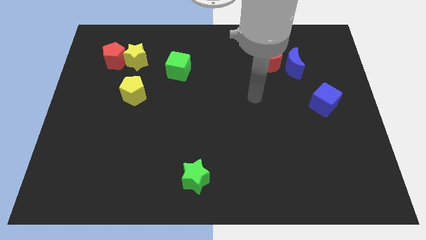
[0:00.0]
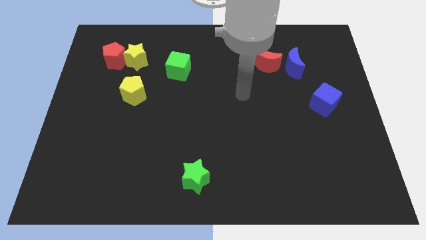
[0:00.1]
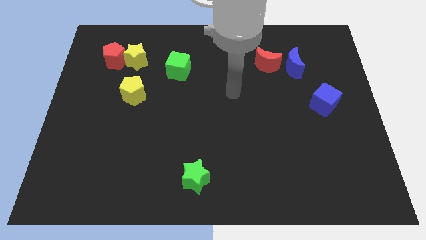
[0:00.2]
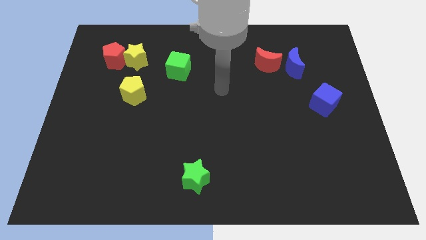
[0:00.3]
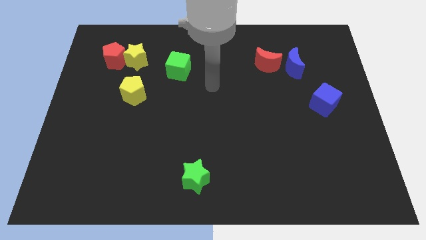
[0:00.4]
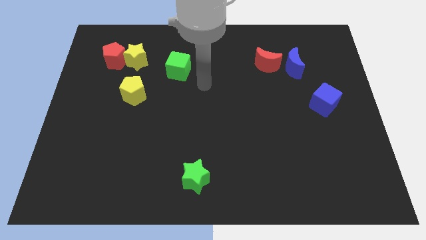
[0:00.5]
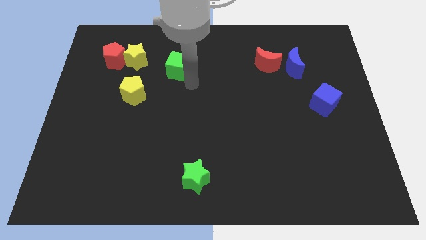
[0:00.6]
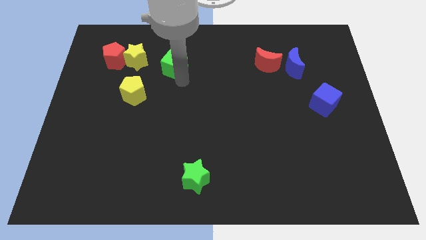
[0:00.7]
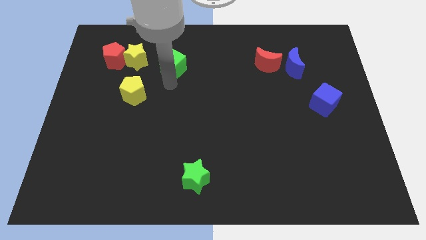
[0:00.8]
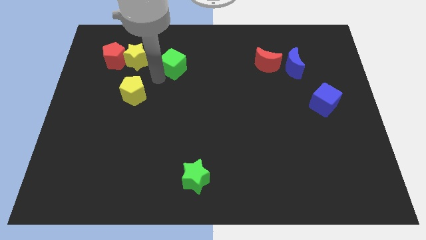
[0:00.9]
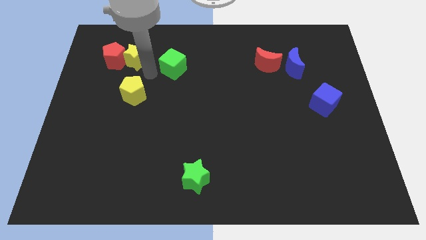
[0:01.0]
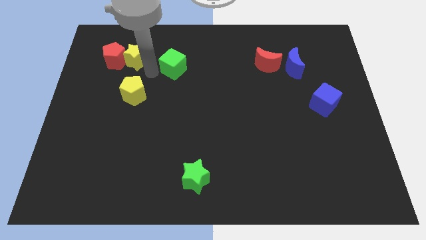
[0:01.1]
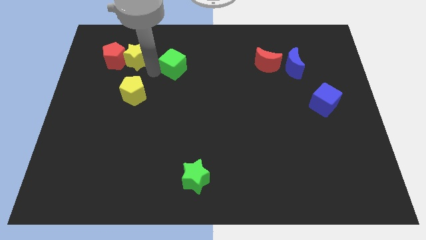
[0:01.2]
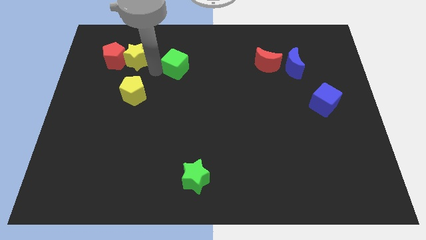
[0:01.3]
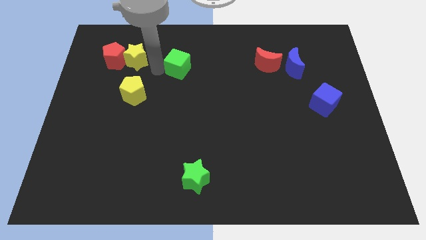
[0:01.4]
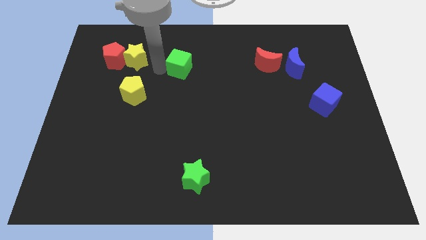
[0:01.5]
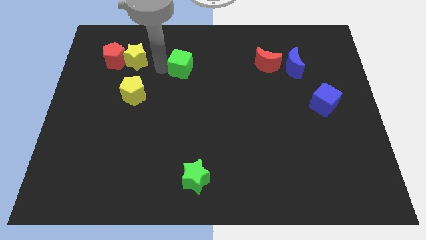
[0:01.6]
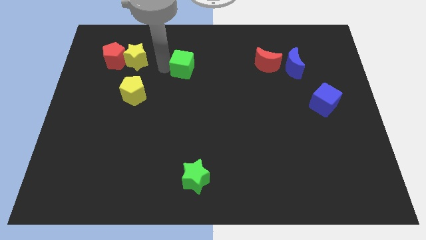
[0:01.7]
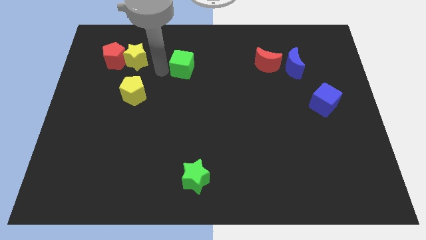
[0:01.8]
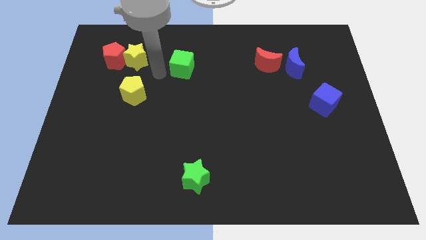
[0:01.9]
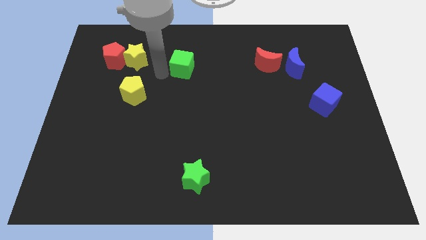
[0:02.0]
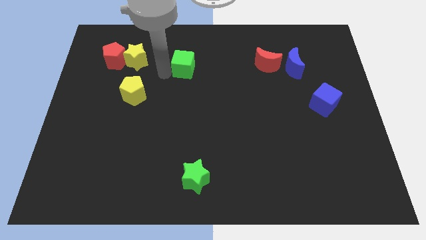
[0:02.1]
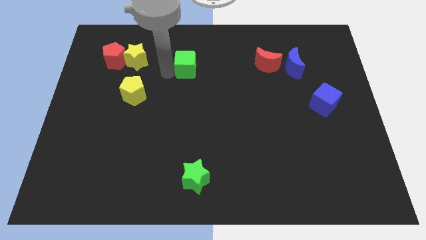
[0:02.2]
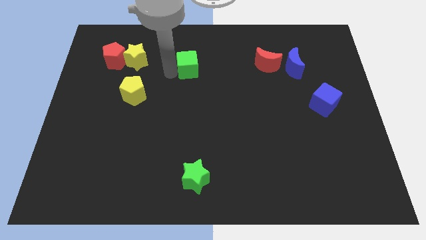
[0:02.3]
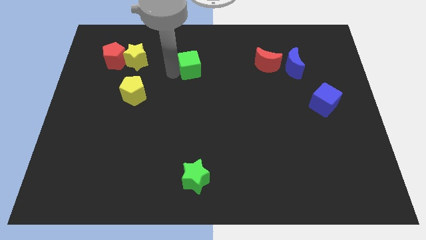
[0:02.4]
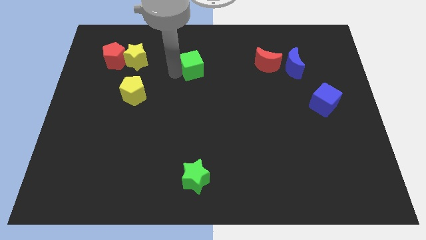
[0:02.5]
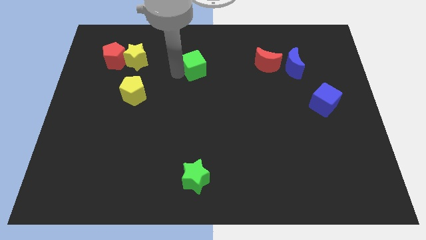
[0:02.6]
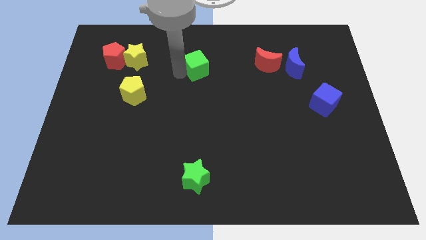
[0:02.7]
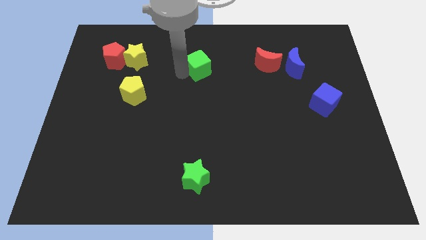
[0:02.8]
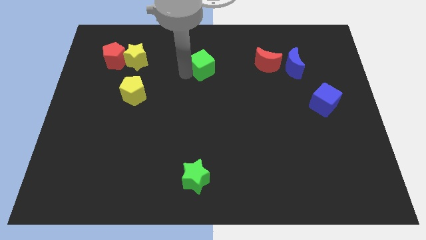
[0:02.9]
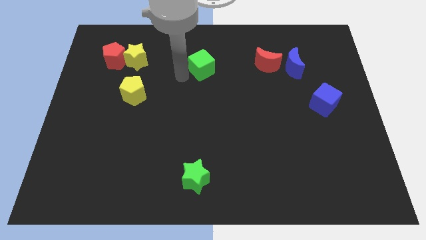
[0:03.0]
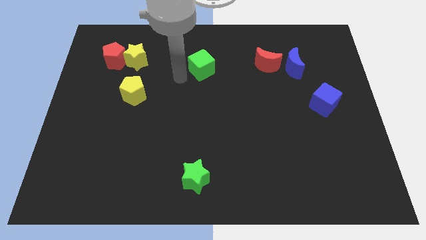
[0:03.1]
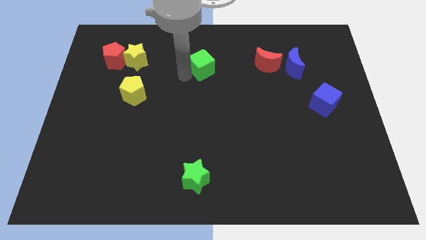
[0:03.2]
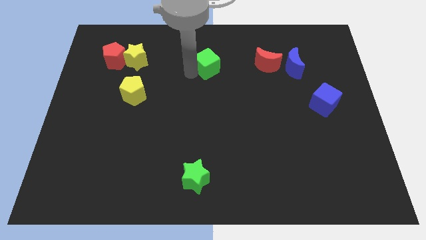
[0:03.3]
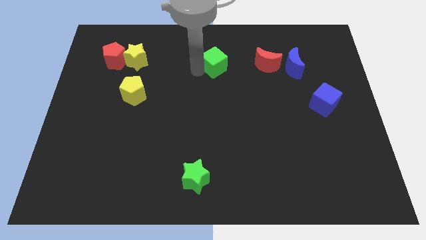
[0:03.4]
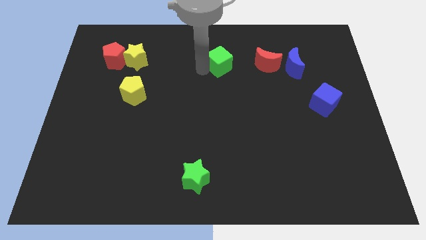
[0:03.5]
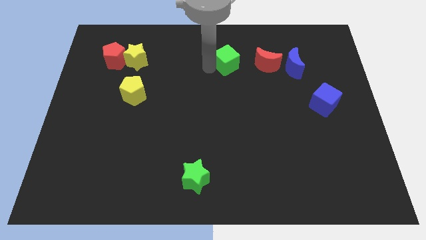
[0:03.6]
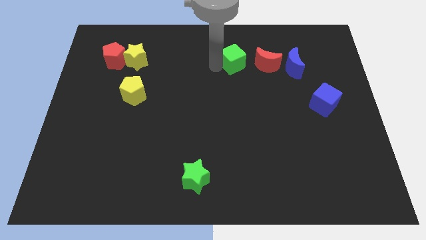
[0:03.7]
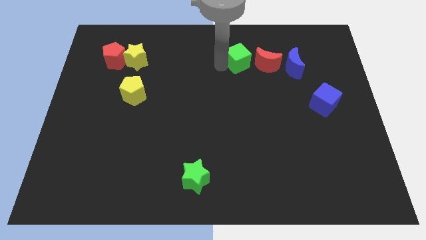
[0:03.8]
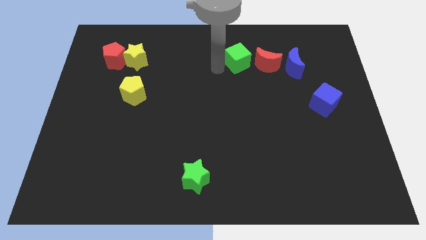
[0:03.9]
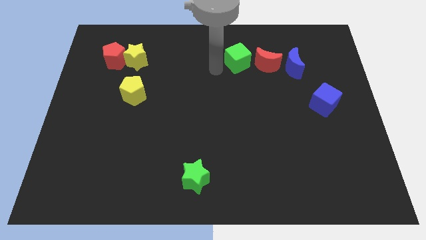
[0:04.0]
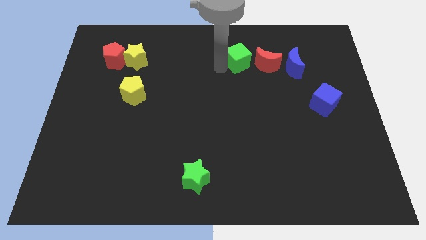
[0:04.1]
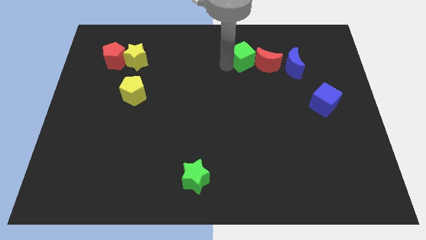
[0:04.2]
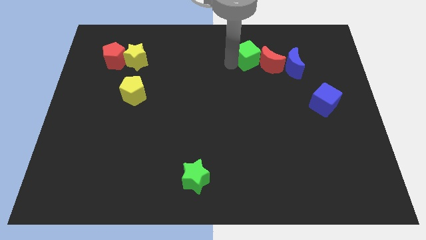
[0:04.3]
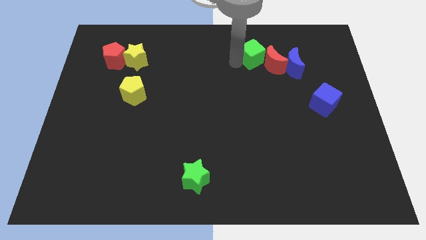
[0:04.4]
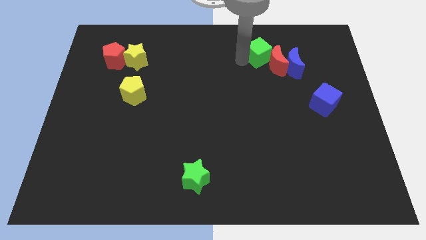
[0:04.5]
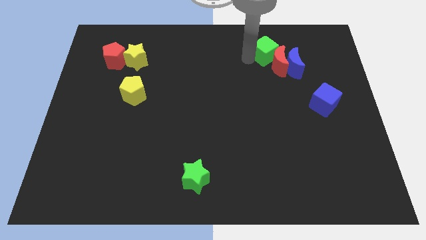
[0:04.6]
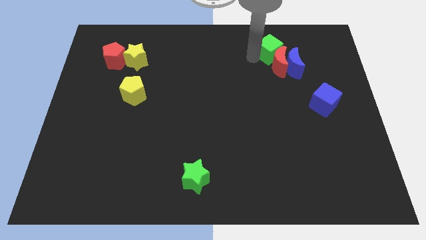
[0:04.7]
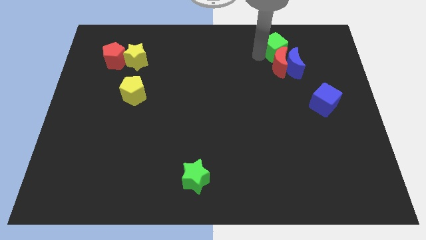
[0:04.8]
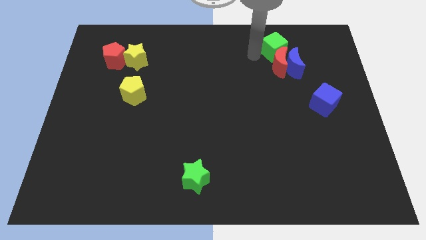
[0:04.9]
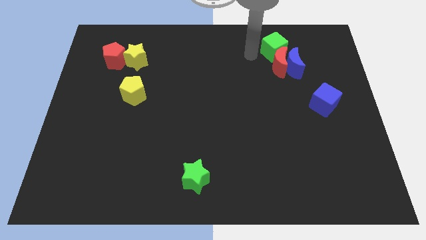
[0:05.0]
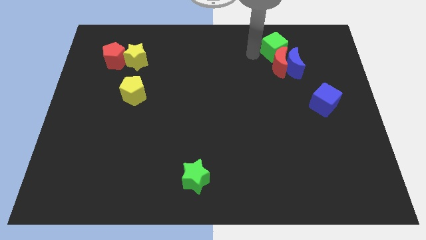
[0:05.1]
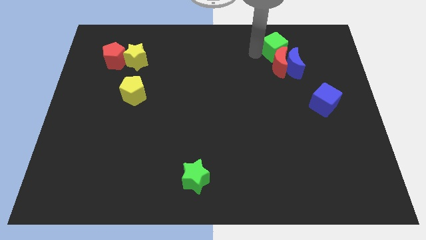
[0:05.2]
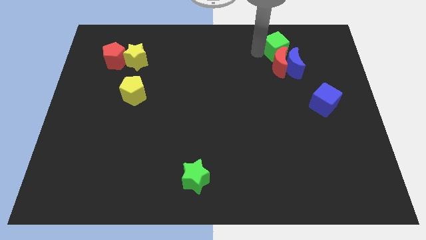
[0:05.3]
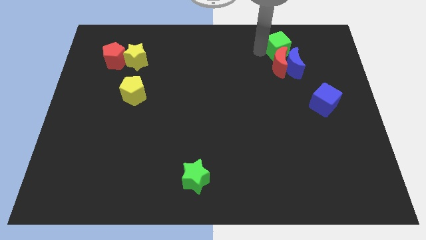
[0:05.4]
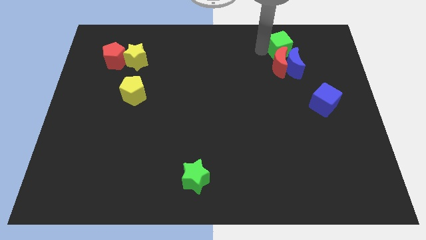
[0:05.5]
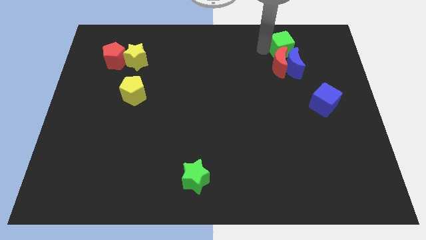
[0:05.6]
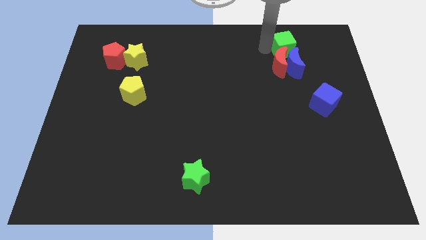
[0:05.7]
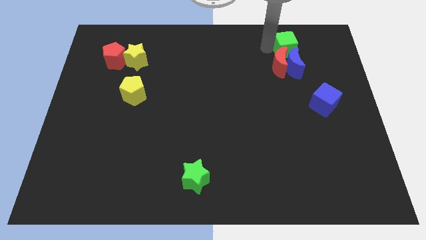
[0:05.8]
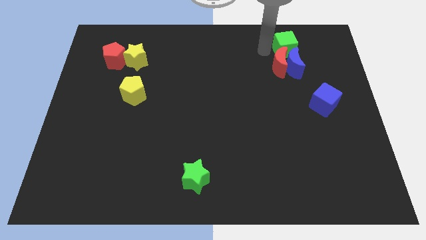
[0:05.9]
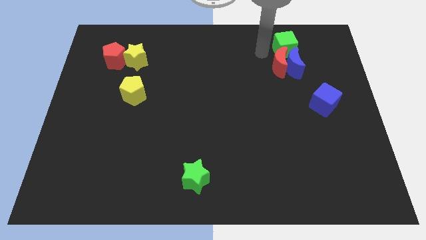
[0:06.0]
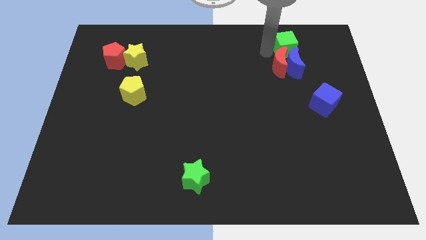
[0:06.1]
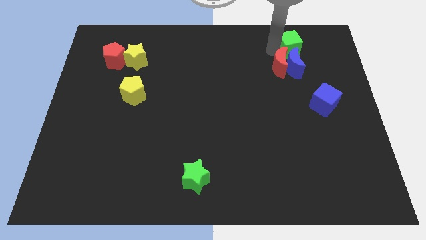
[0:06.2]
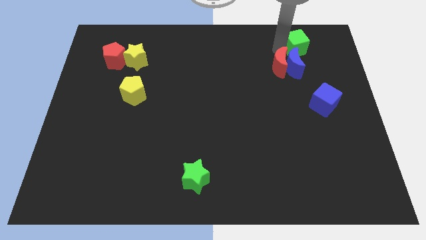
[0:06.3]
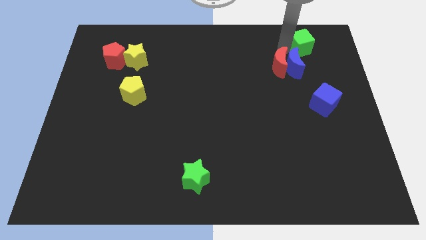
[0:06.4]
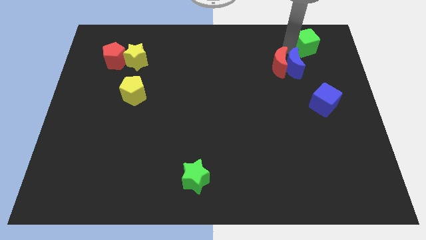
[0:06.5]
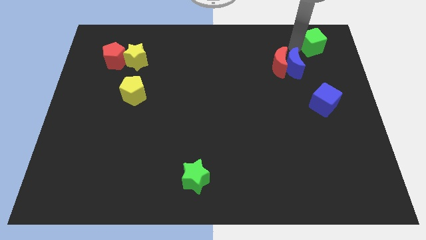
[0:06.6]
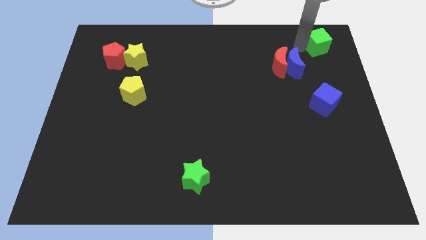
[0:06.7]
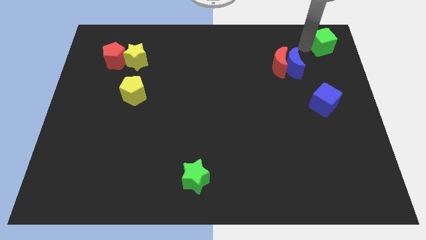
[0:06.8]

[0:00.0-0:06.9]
move the green cube to the top right corner
